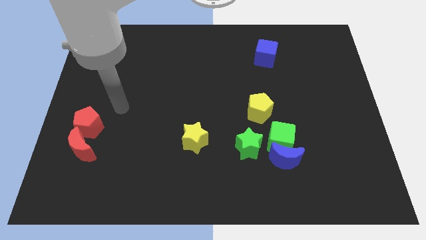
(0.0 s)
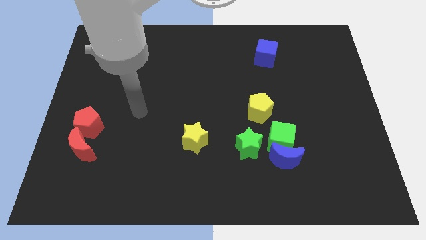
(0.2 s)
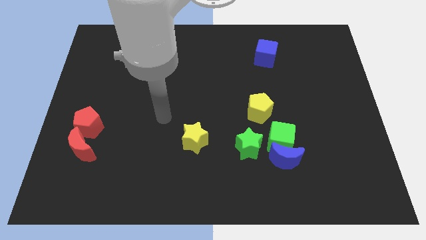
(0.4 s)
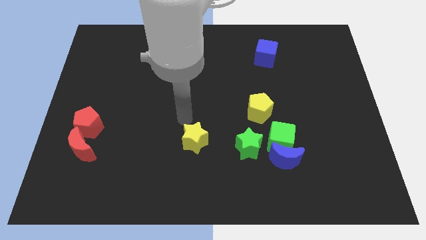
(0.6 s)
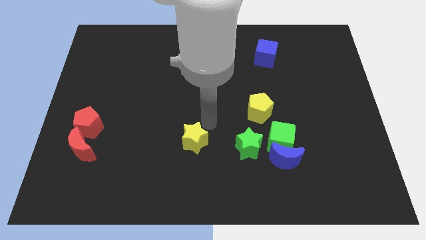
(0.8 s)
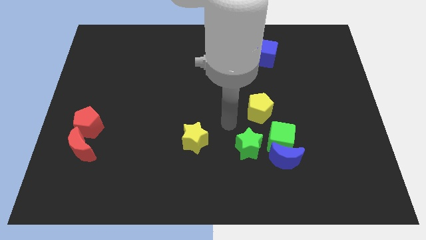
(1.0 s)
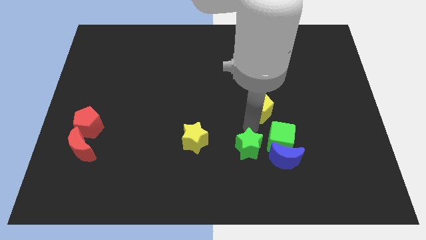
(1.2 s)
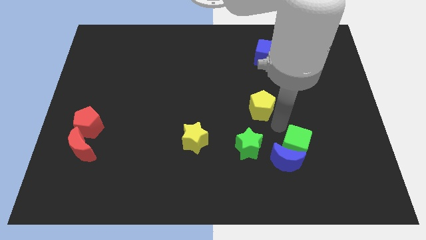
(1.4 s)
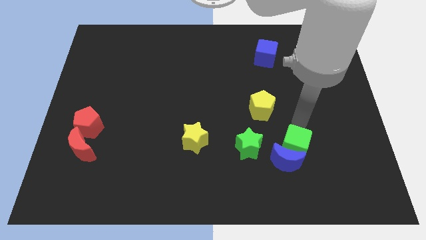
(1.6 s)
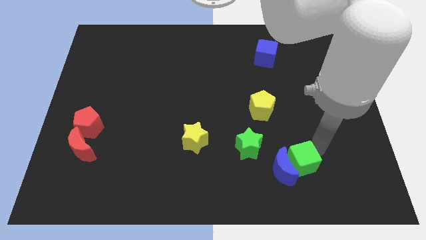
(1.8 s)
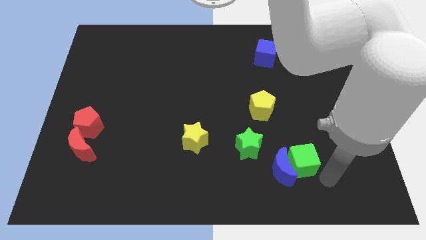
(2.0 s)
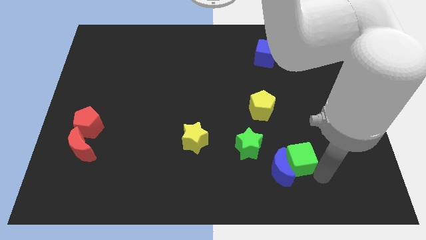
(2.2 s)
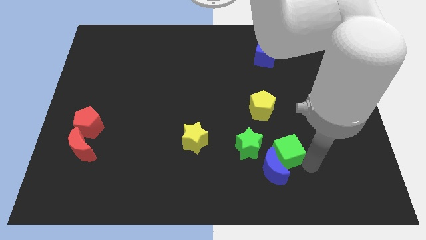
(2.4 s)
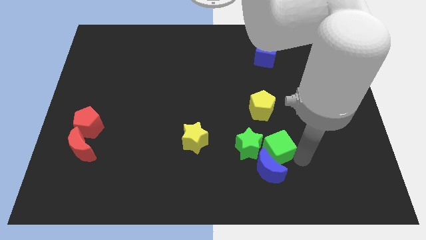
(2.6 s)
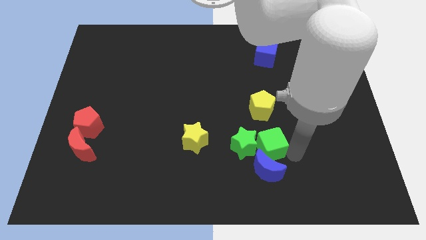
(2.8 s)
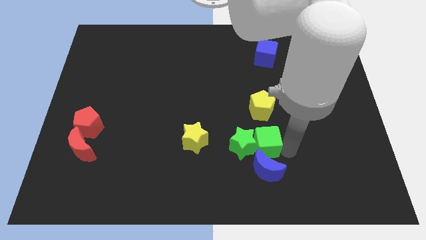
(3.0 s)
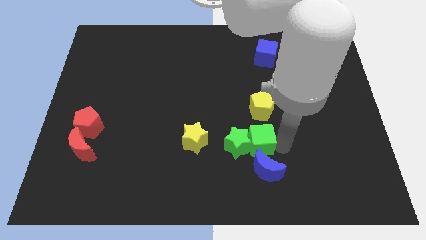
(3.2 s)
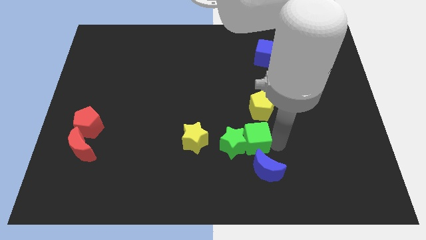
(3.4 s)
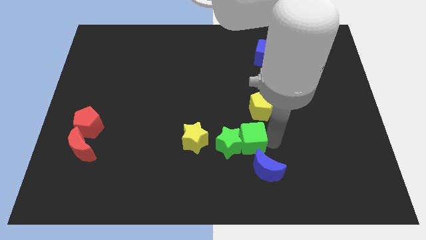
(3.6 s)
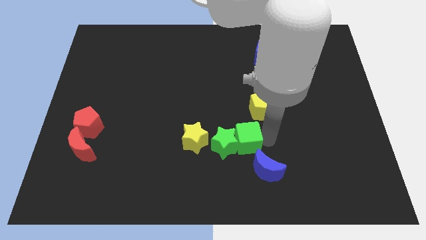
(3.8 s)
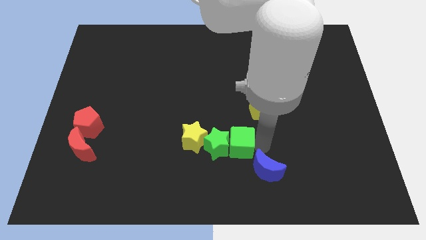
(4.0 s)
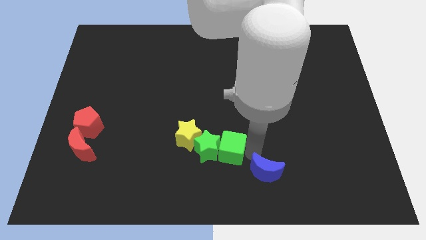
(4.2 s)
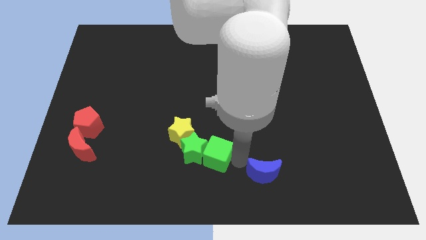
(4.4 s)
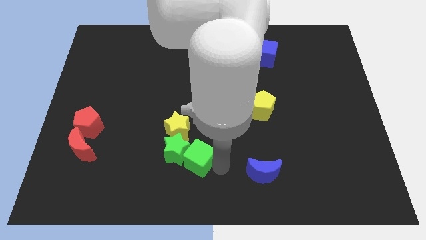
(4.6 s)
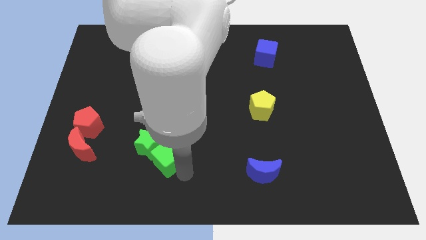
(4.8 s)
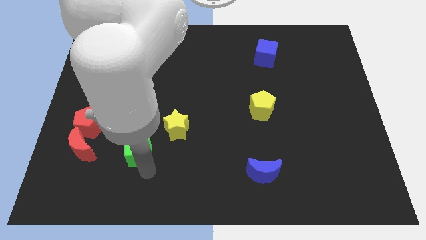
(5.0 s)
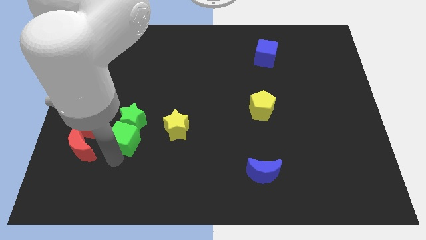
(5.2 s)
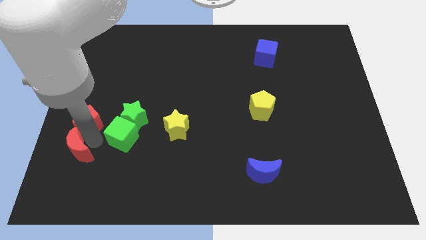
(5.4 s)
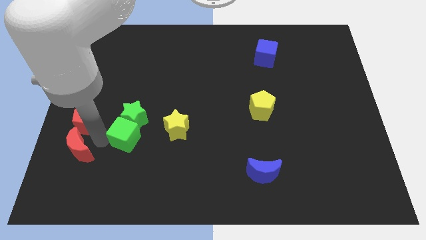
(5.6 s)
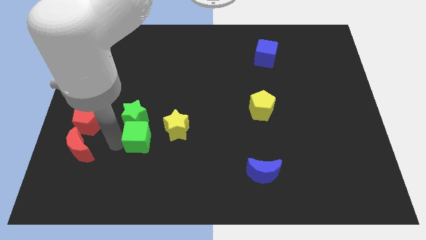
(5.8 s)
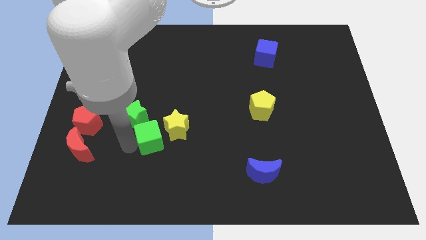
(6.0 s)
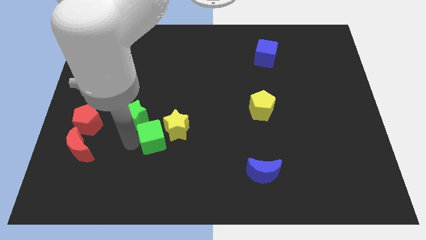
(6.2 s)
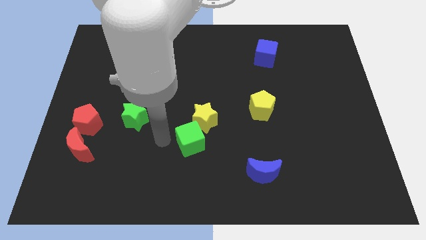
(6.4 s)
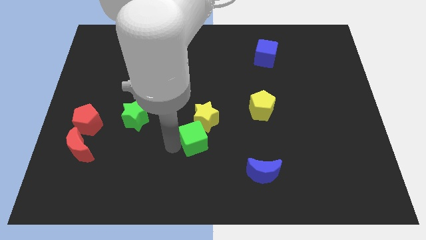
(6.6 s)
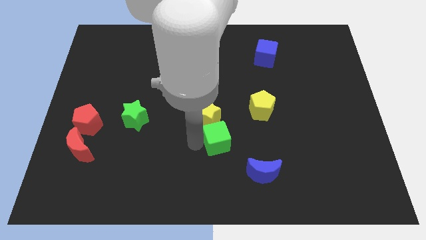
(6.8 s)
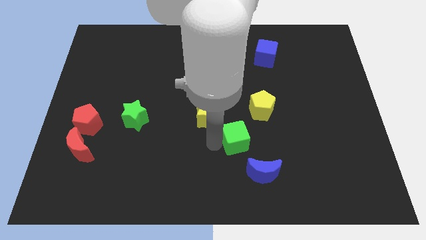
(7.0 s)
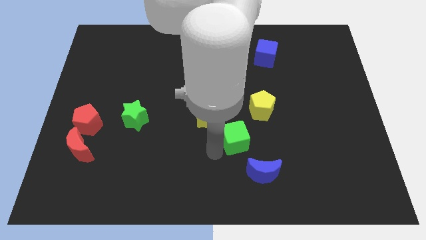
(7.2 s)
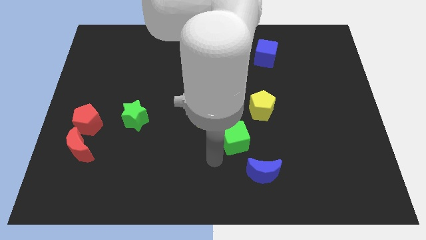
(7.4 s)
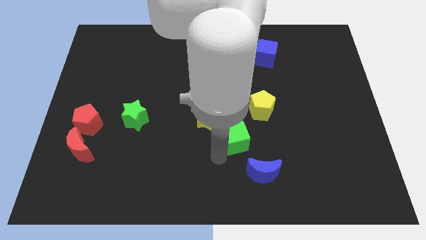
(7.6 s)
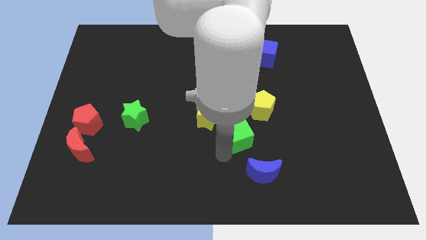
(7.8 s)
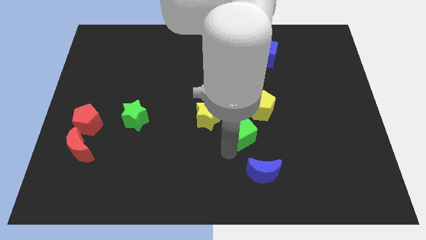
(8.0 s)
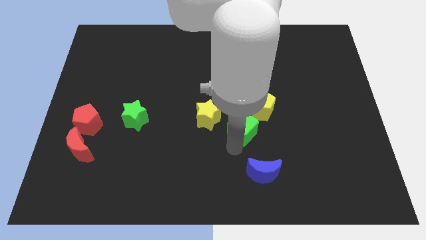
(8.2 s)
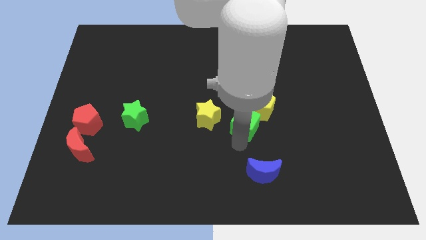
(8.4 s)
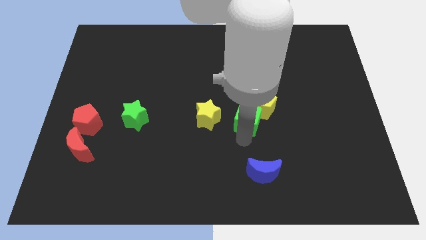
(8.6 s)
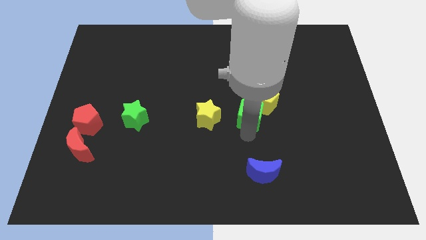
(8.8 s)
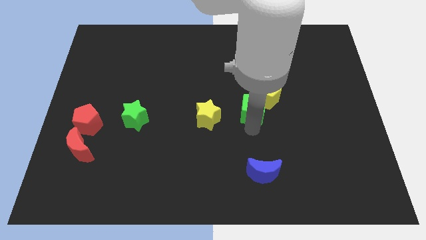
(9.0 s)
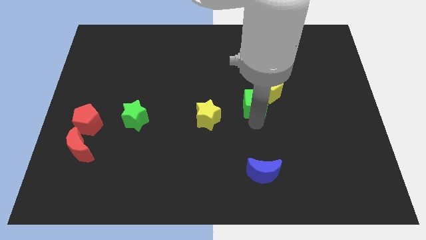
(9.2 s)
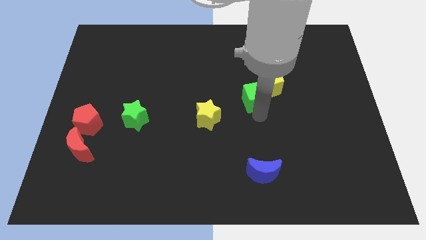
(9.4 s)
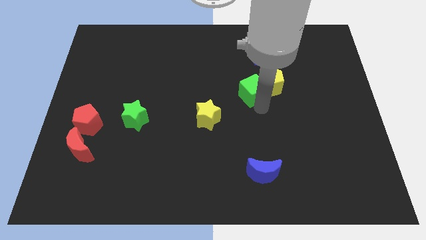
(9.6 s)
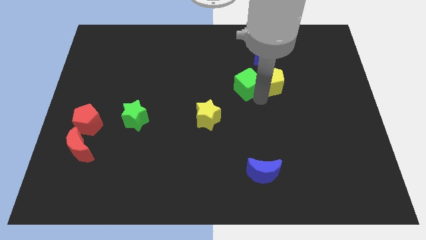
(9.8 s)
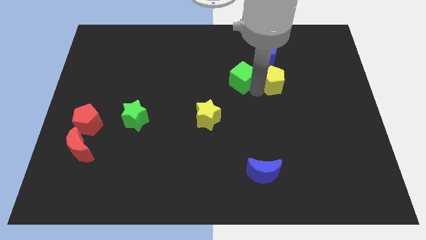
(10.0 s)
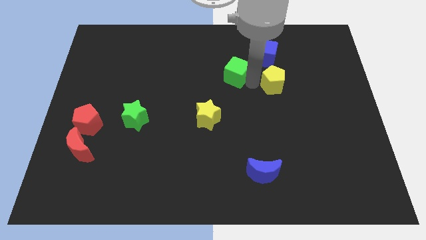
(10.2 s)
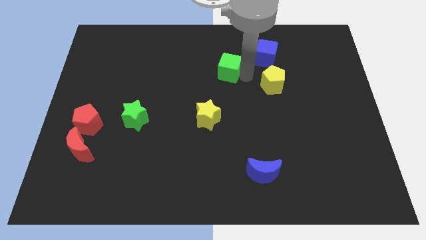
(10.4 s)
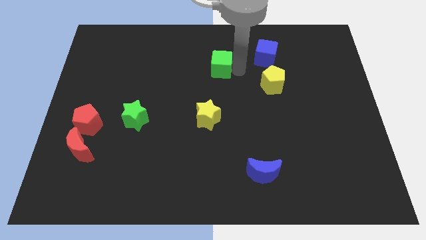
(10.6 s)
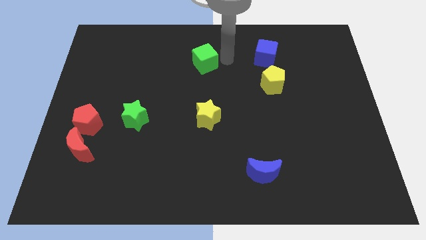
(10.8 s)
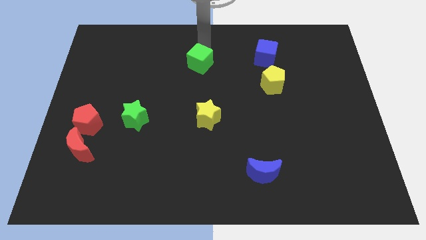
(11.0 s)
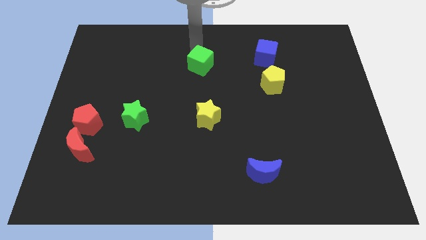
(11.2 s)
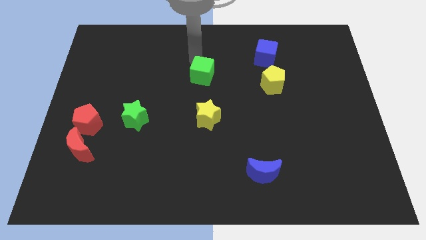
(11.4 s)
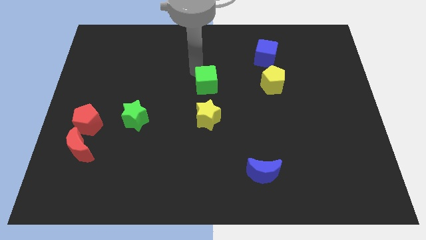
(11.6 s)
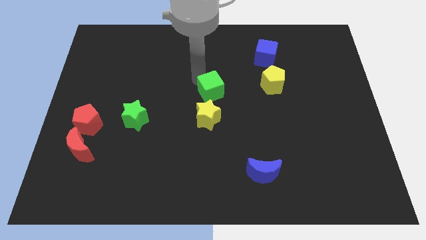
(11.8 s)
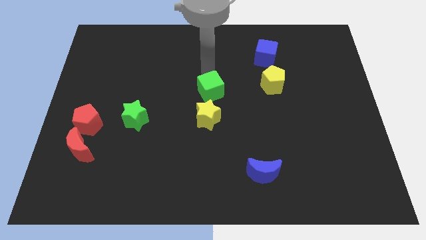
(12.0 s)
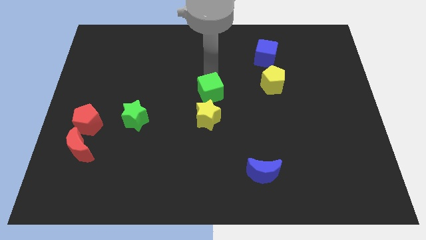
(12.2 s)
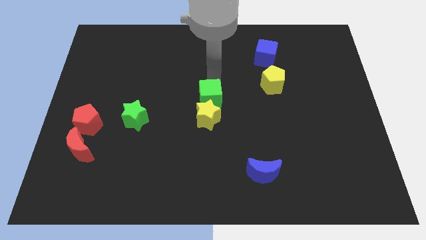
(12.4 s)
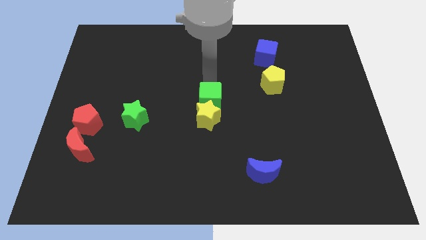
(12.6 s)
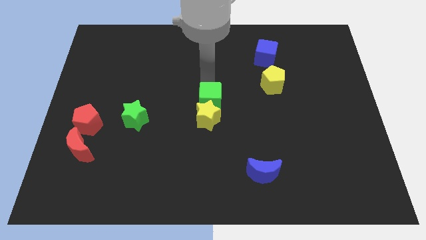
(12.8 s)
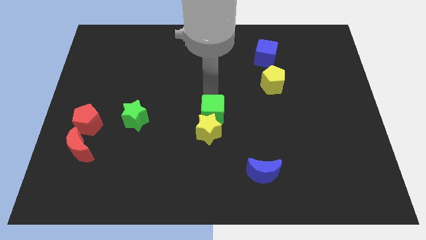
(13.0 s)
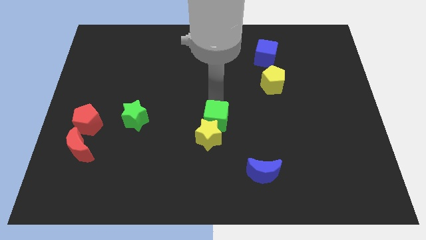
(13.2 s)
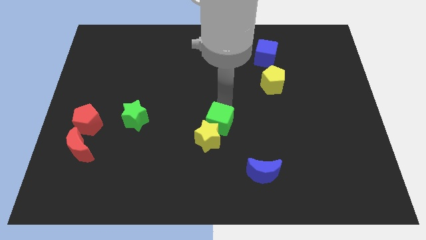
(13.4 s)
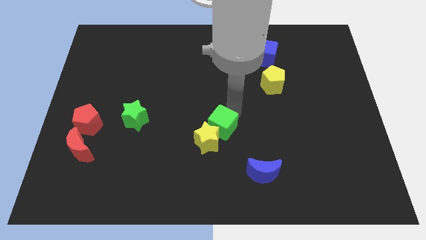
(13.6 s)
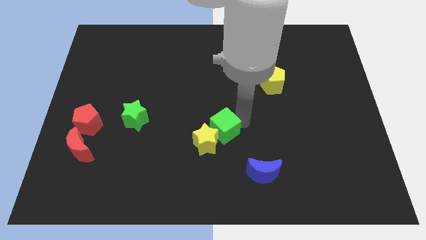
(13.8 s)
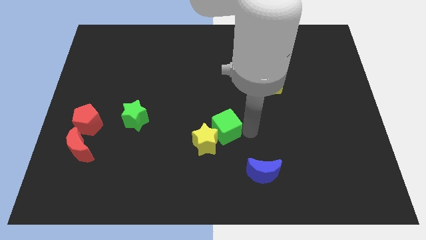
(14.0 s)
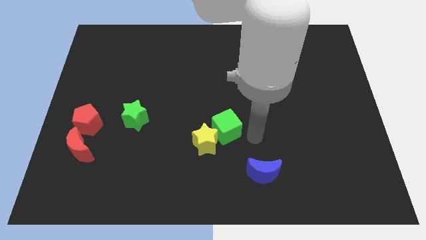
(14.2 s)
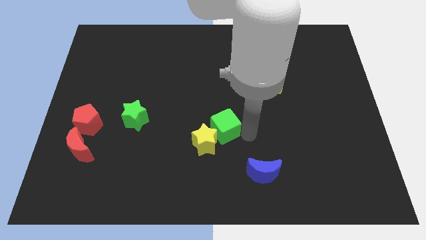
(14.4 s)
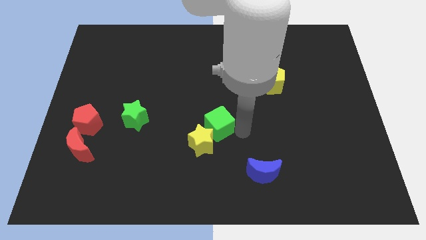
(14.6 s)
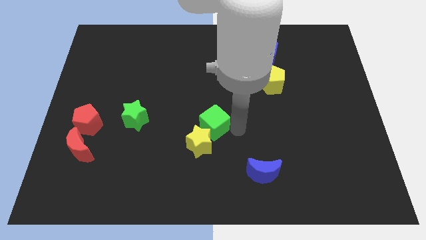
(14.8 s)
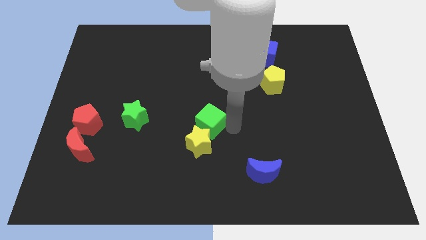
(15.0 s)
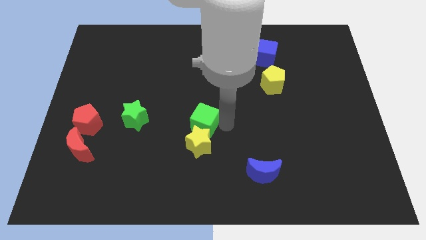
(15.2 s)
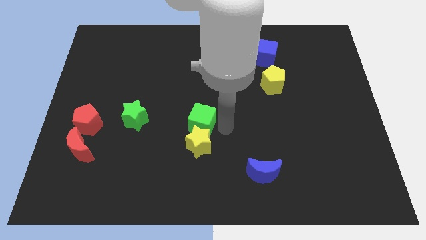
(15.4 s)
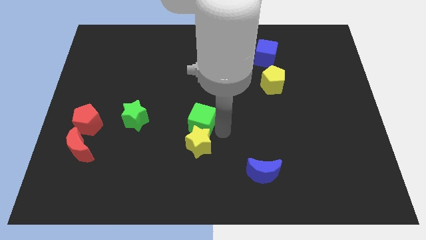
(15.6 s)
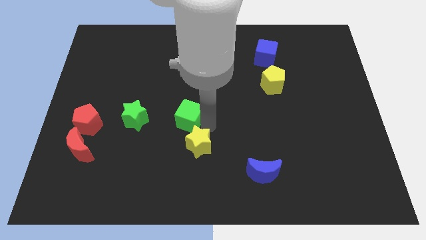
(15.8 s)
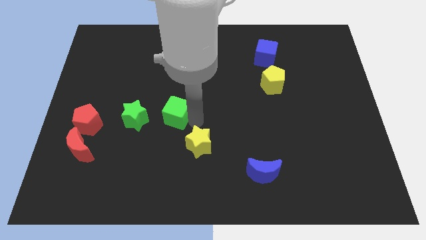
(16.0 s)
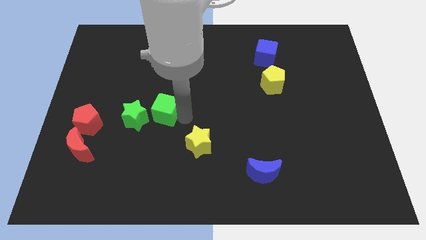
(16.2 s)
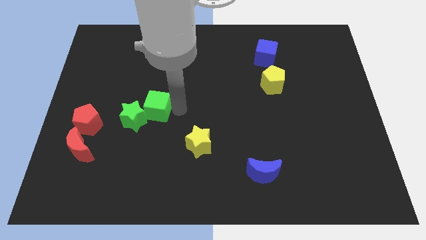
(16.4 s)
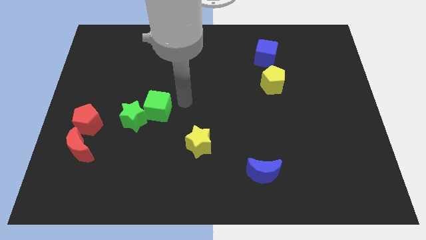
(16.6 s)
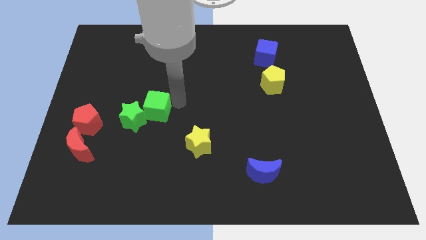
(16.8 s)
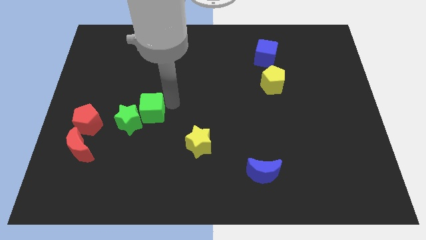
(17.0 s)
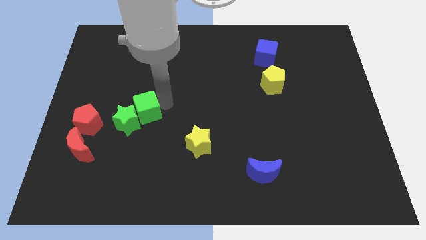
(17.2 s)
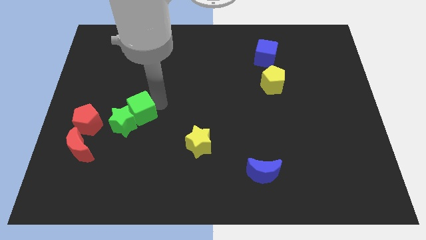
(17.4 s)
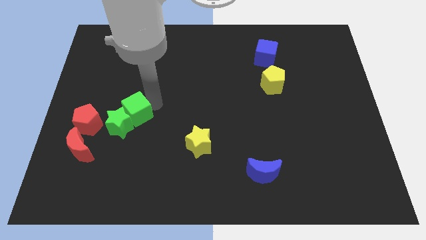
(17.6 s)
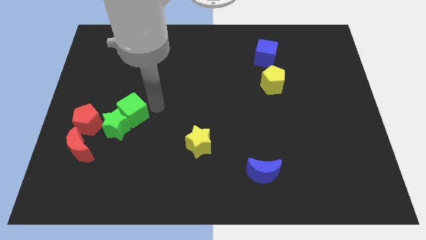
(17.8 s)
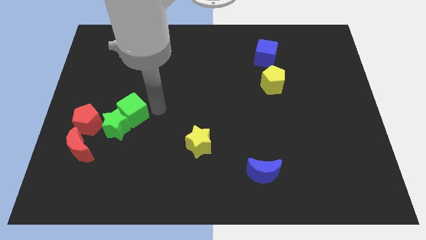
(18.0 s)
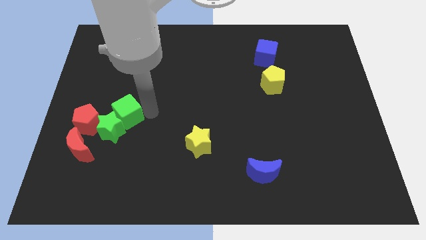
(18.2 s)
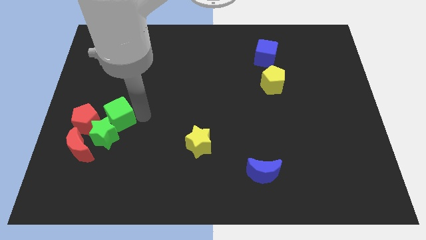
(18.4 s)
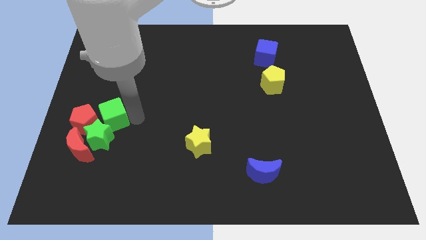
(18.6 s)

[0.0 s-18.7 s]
push the green cube next to the red pentagon
